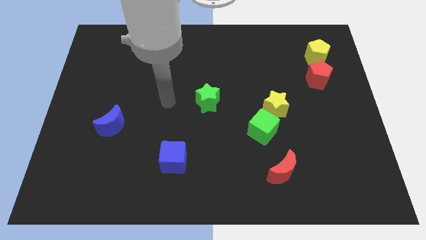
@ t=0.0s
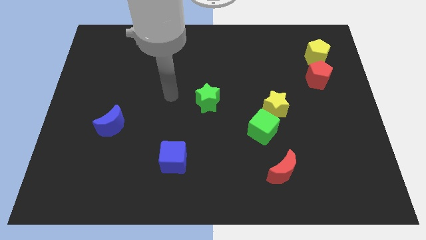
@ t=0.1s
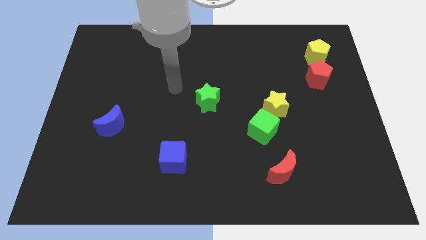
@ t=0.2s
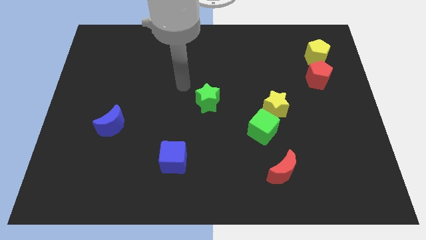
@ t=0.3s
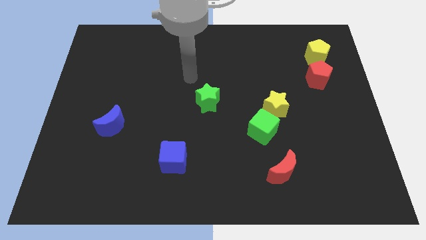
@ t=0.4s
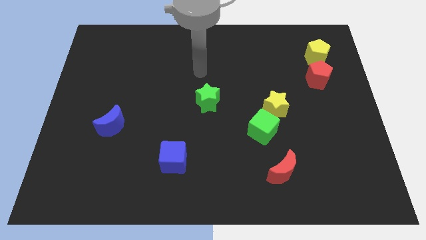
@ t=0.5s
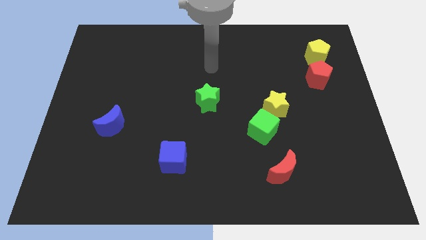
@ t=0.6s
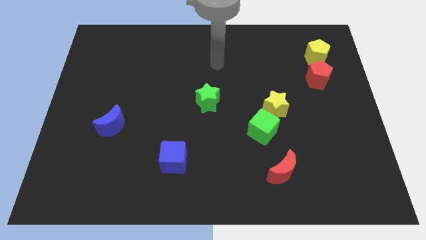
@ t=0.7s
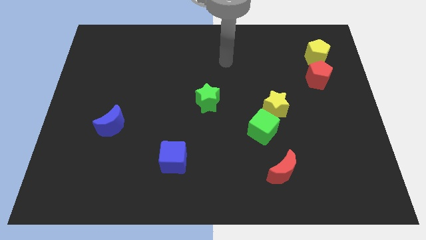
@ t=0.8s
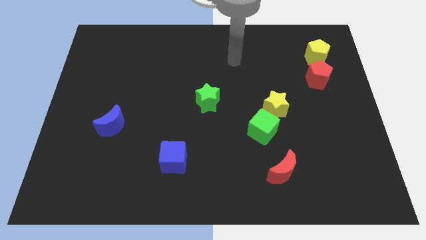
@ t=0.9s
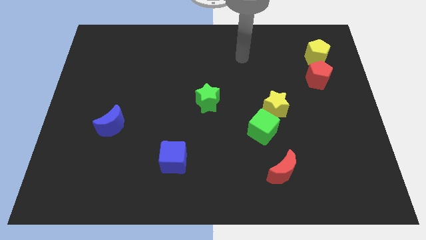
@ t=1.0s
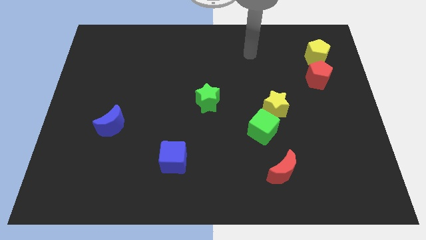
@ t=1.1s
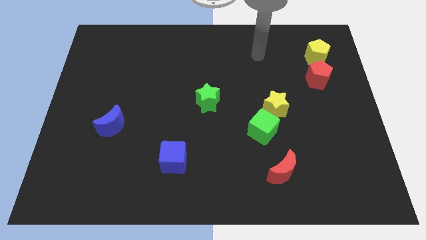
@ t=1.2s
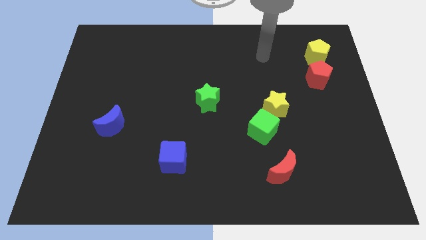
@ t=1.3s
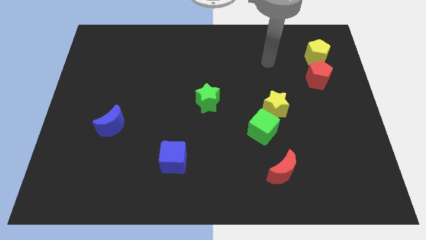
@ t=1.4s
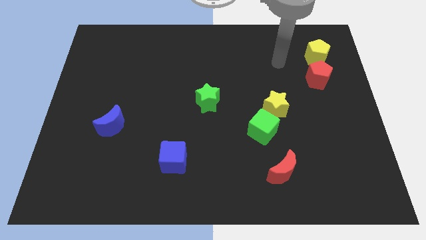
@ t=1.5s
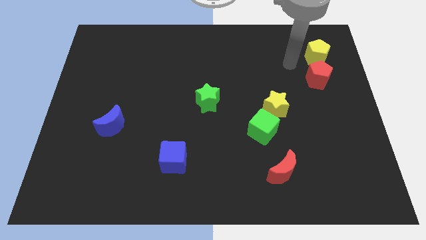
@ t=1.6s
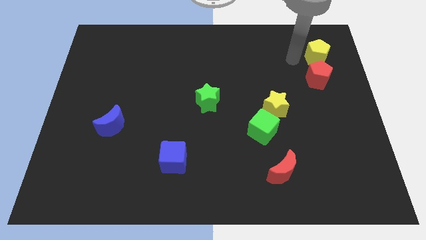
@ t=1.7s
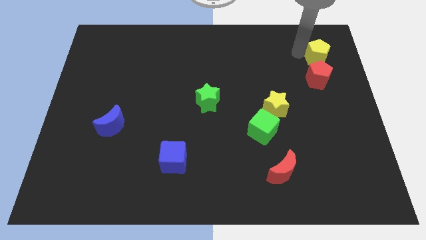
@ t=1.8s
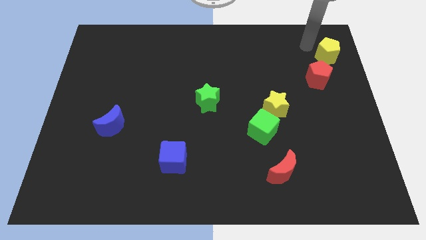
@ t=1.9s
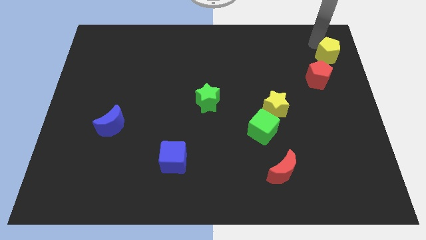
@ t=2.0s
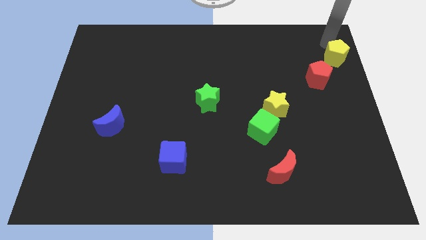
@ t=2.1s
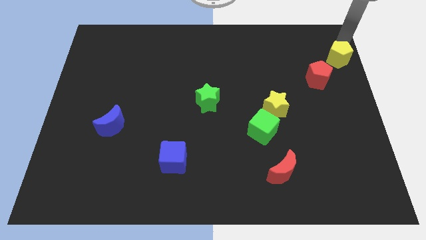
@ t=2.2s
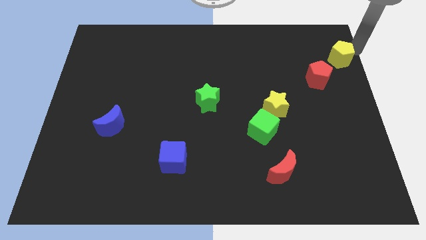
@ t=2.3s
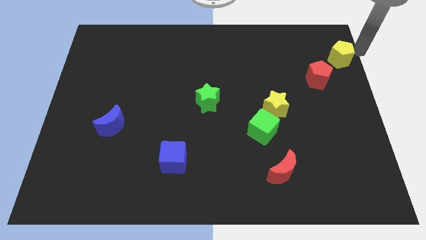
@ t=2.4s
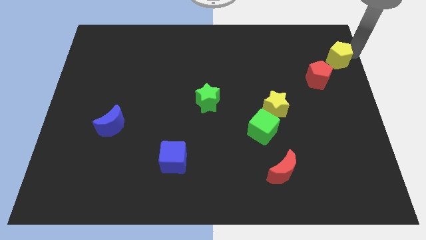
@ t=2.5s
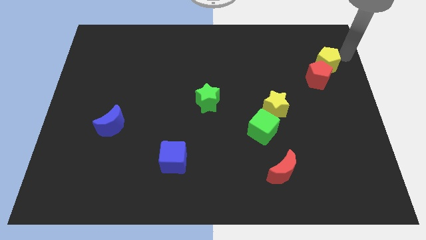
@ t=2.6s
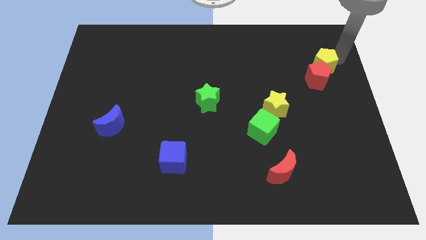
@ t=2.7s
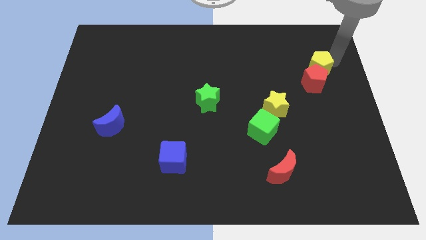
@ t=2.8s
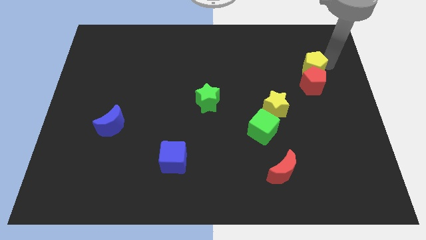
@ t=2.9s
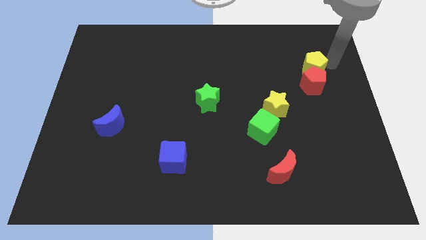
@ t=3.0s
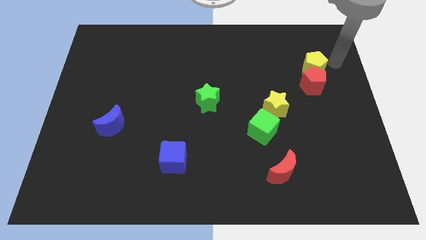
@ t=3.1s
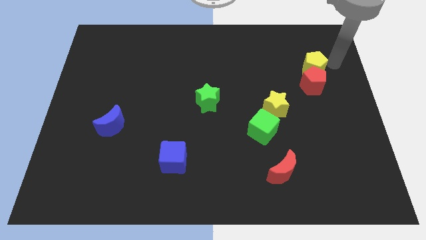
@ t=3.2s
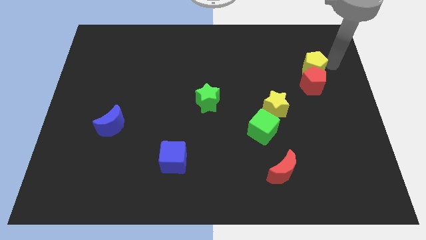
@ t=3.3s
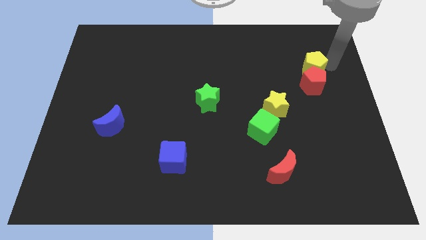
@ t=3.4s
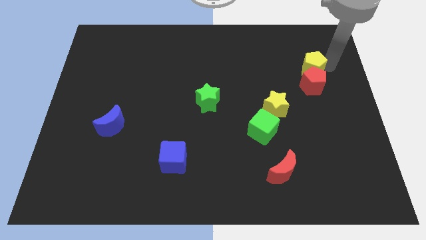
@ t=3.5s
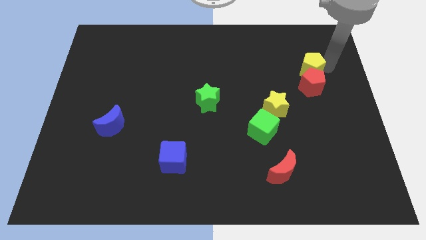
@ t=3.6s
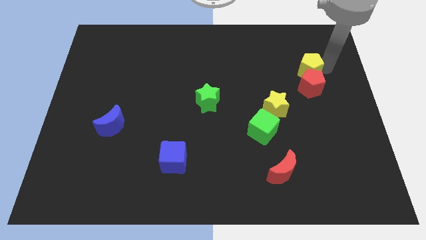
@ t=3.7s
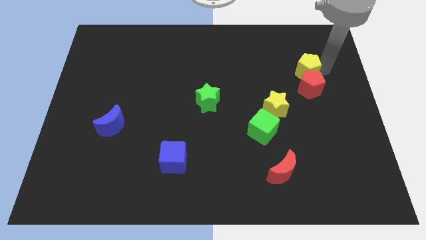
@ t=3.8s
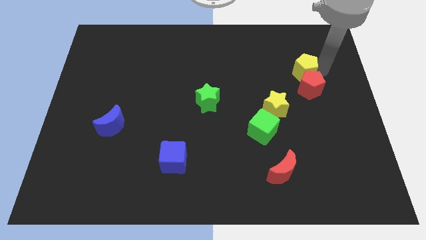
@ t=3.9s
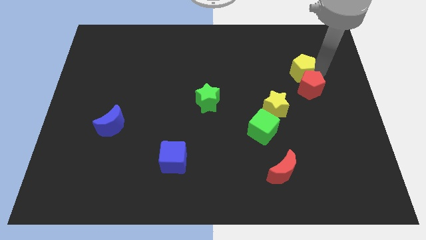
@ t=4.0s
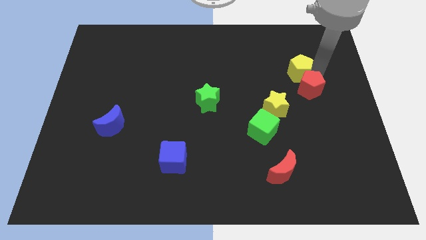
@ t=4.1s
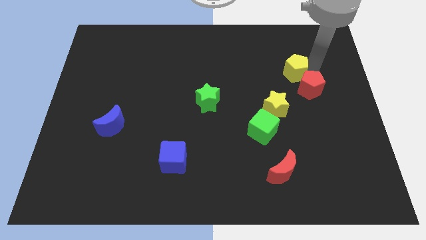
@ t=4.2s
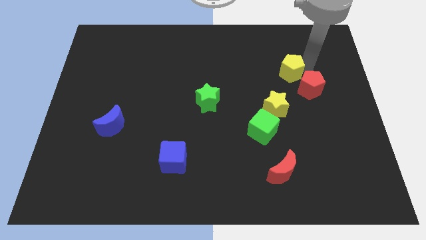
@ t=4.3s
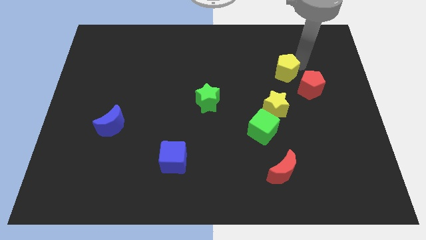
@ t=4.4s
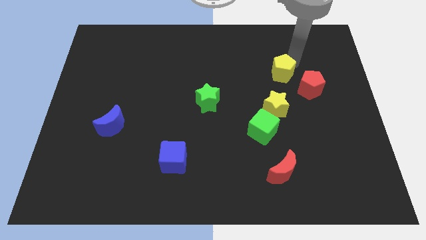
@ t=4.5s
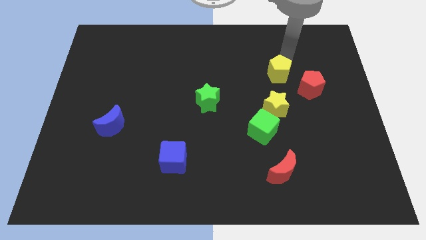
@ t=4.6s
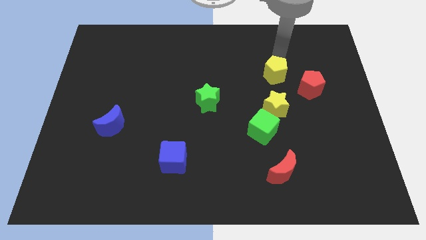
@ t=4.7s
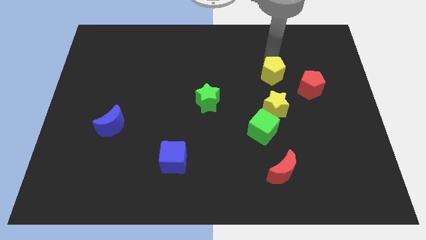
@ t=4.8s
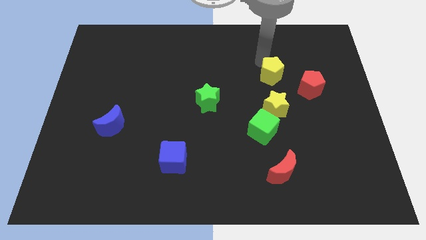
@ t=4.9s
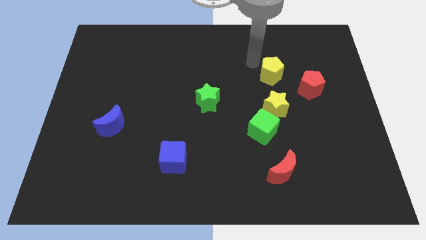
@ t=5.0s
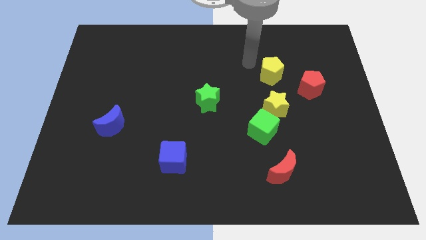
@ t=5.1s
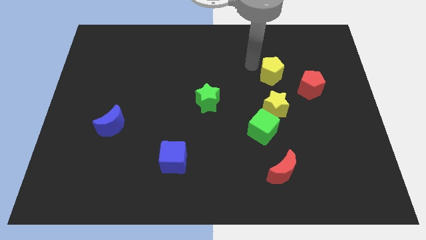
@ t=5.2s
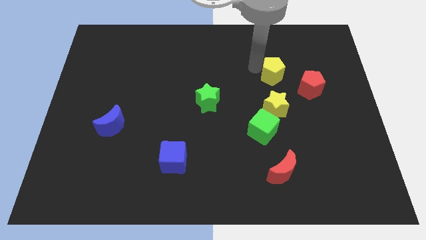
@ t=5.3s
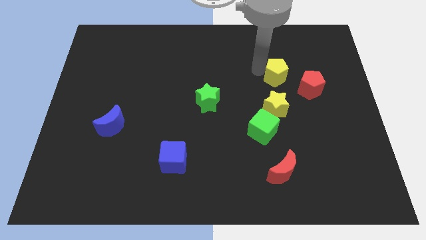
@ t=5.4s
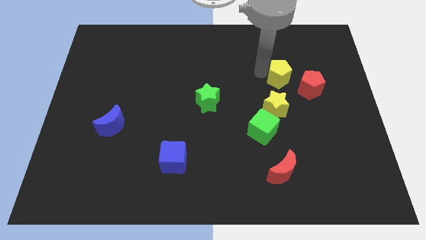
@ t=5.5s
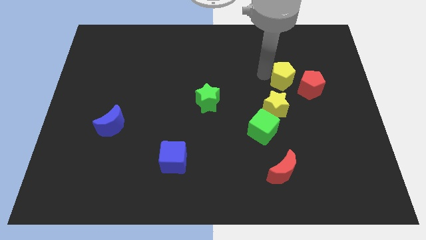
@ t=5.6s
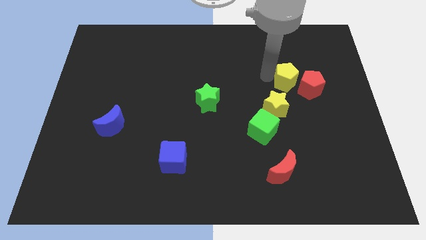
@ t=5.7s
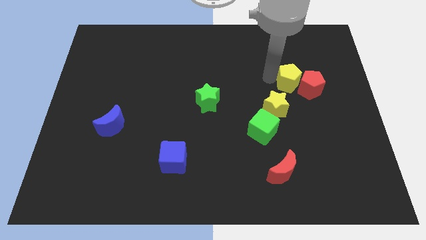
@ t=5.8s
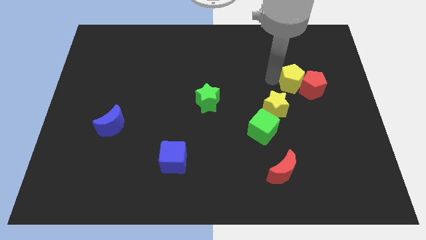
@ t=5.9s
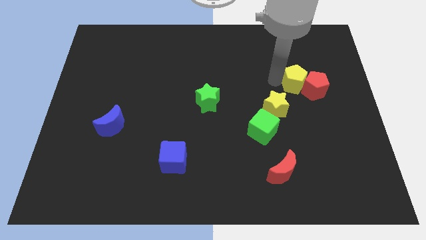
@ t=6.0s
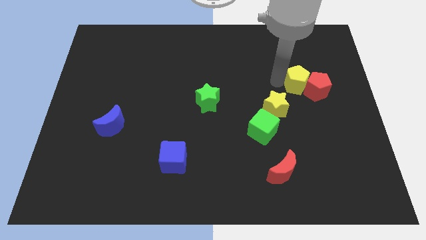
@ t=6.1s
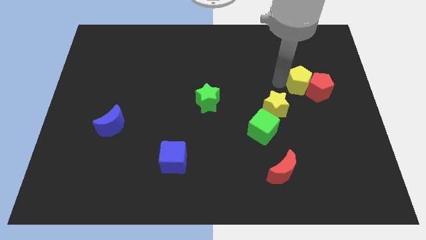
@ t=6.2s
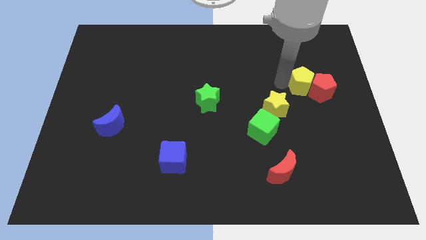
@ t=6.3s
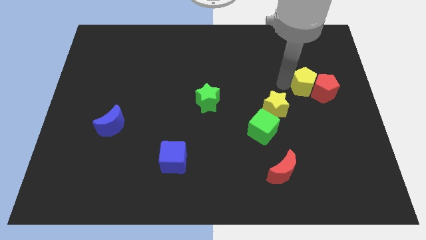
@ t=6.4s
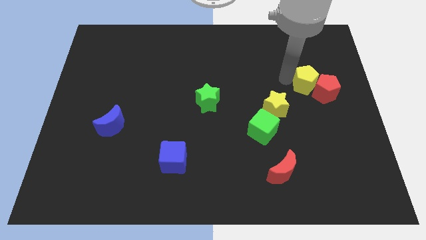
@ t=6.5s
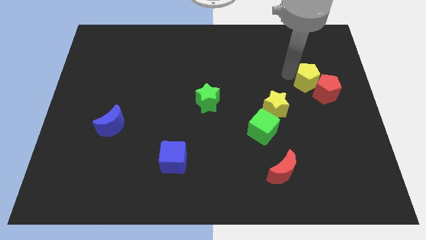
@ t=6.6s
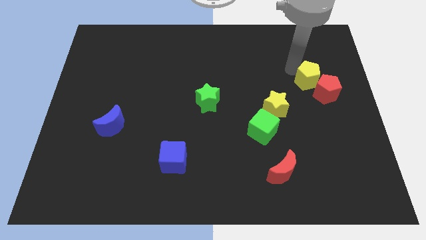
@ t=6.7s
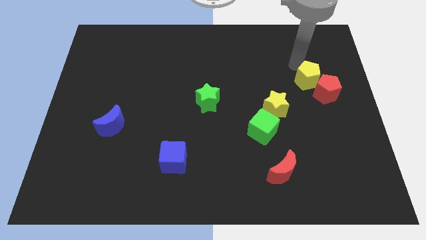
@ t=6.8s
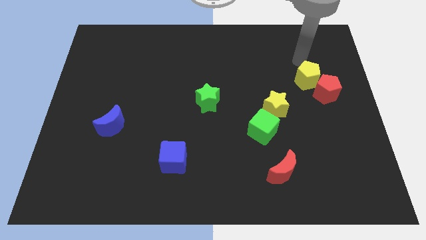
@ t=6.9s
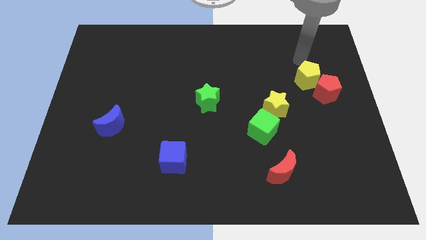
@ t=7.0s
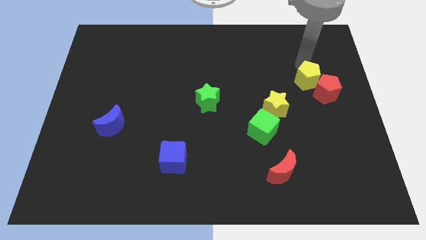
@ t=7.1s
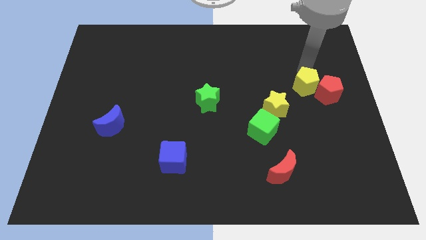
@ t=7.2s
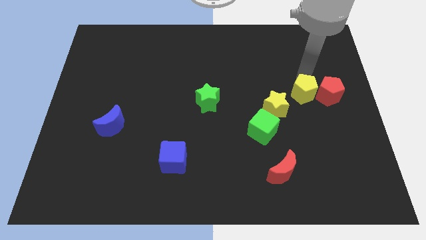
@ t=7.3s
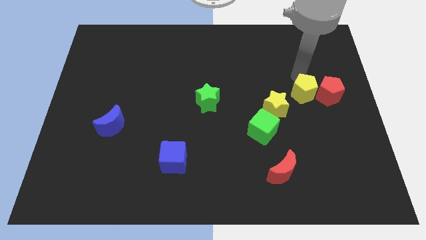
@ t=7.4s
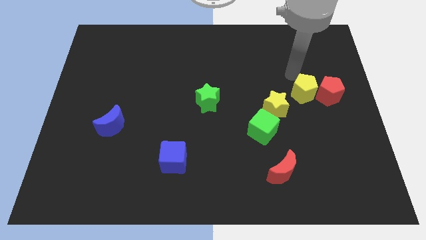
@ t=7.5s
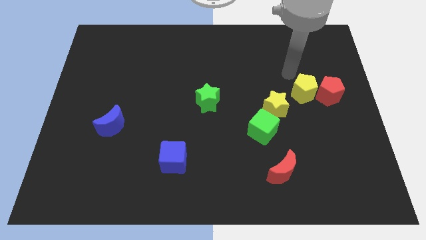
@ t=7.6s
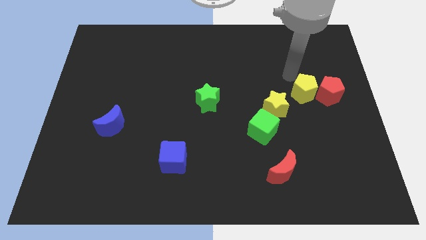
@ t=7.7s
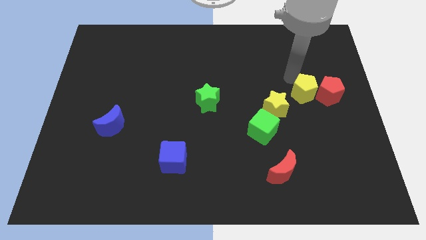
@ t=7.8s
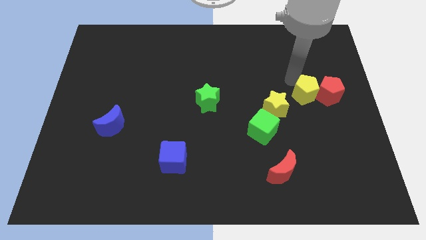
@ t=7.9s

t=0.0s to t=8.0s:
move the yellow pentagon right of the yellow star
